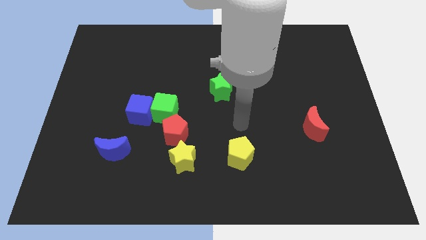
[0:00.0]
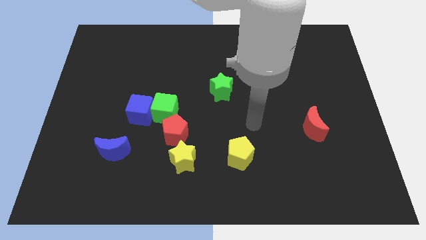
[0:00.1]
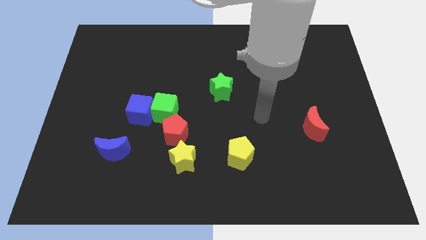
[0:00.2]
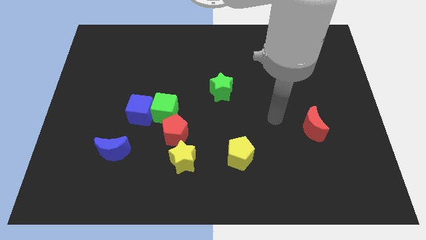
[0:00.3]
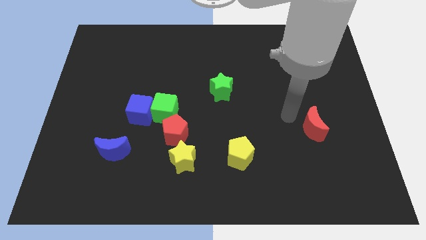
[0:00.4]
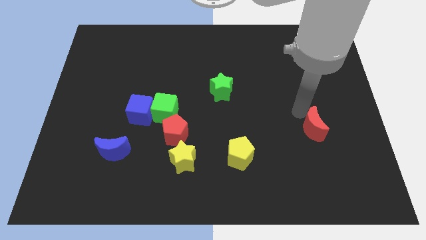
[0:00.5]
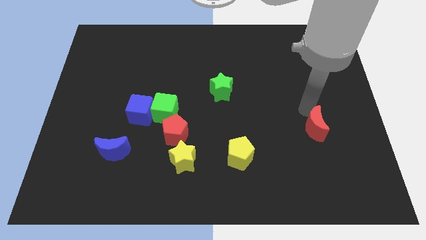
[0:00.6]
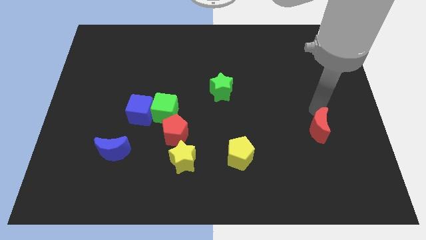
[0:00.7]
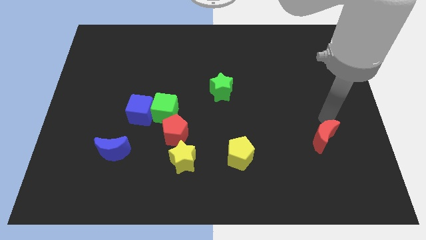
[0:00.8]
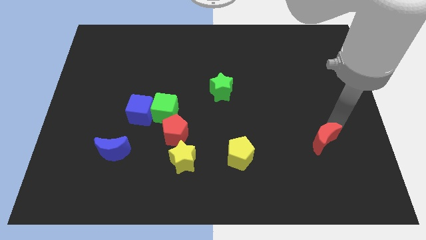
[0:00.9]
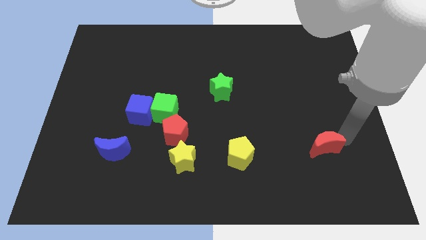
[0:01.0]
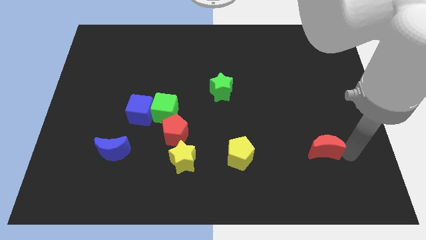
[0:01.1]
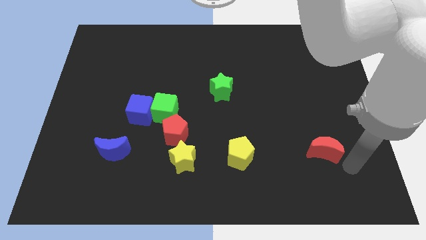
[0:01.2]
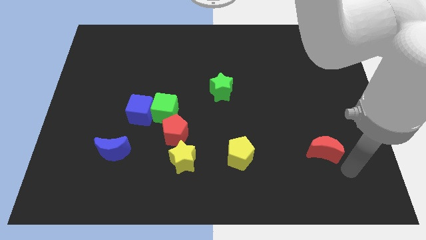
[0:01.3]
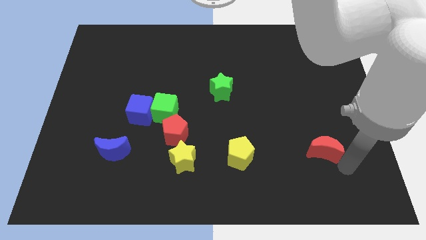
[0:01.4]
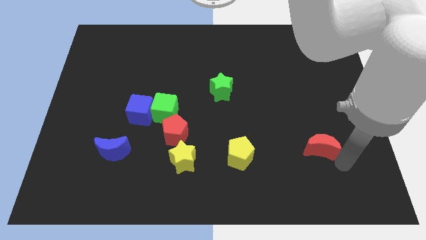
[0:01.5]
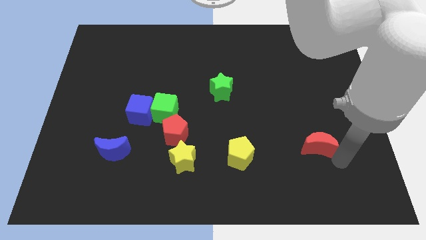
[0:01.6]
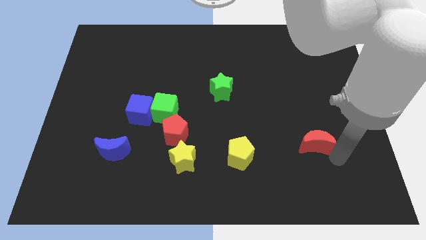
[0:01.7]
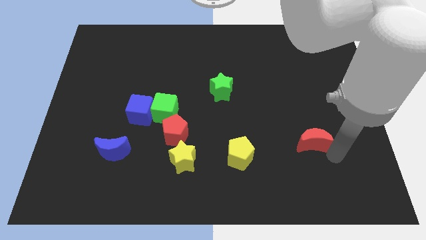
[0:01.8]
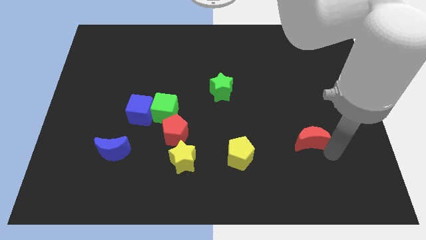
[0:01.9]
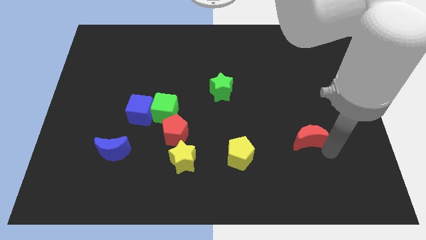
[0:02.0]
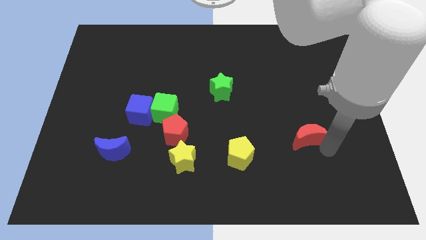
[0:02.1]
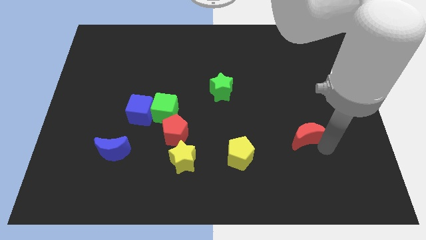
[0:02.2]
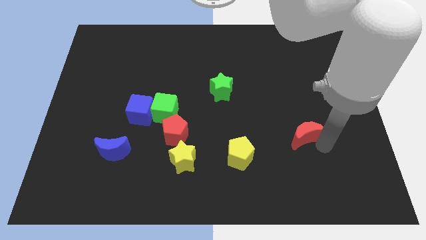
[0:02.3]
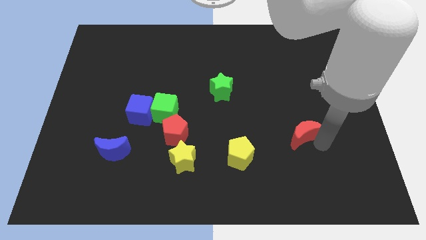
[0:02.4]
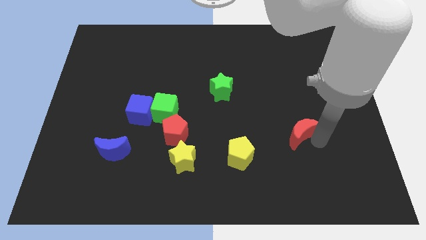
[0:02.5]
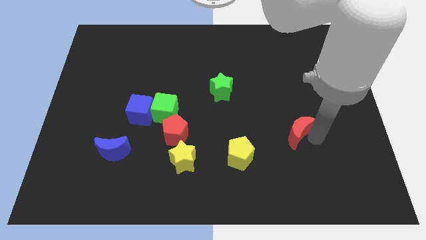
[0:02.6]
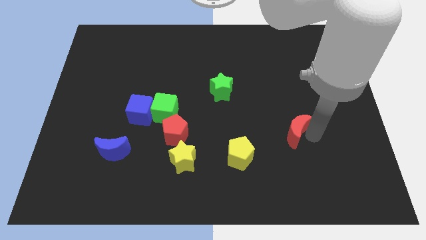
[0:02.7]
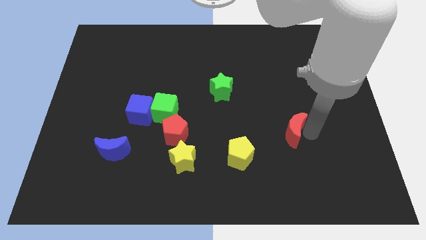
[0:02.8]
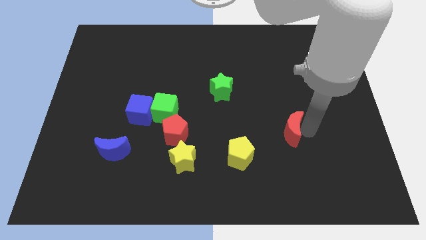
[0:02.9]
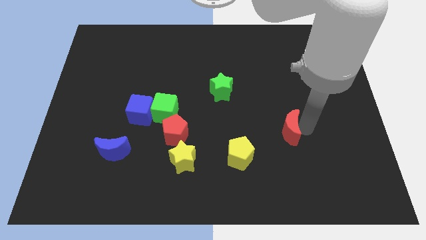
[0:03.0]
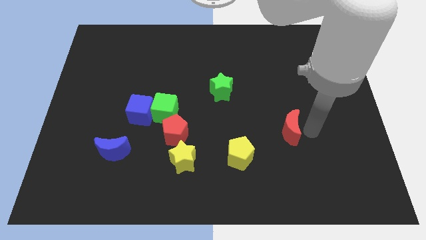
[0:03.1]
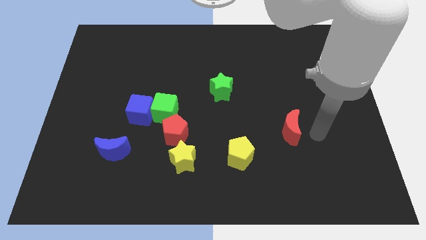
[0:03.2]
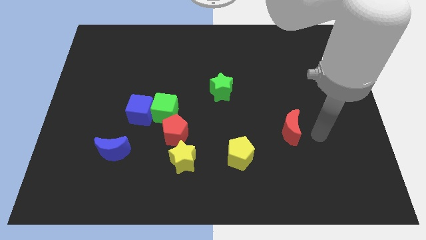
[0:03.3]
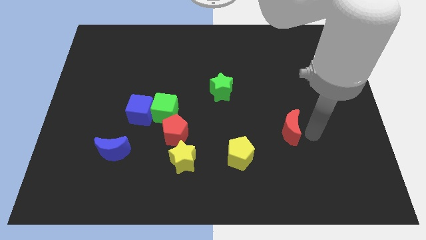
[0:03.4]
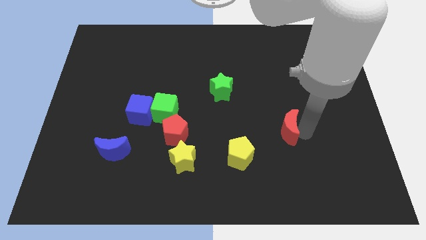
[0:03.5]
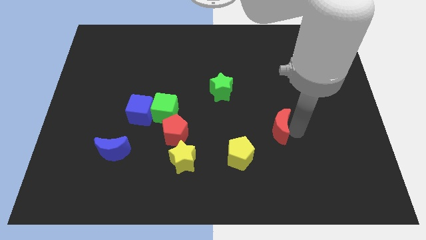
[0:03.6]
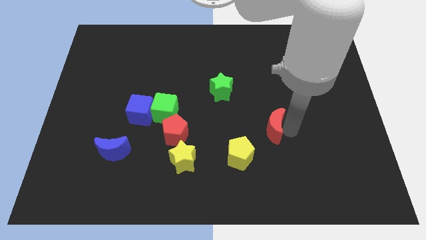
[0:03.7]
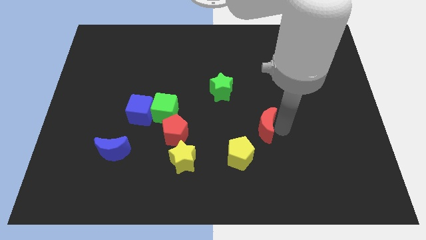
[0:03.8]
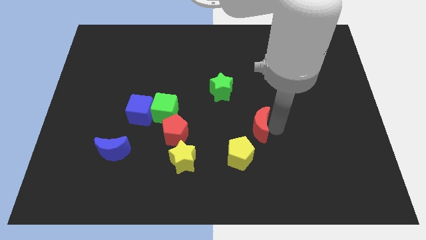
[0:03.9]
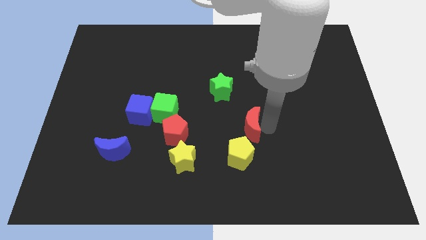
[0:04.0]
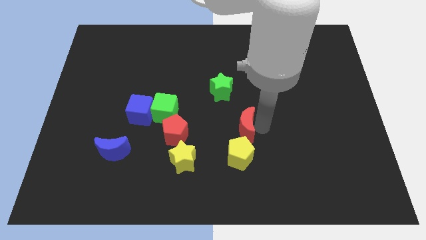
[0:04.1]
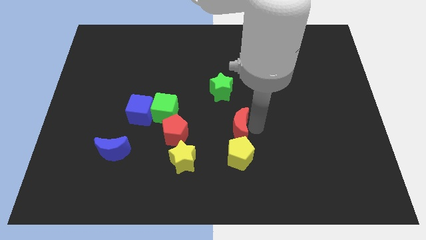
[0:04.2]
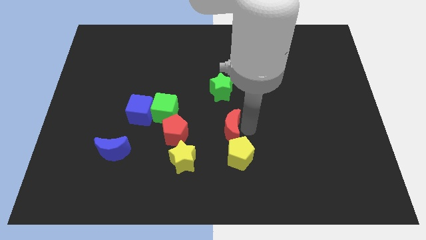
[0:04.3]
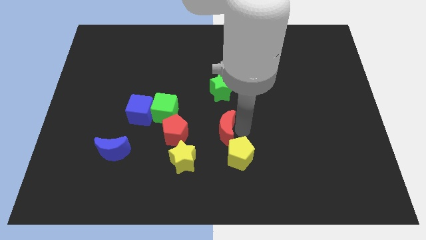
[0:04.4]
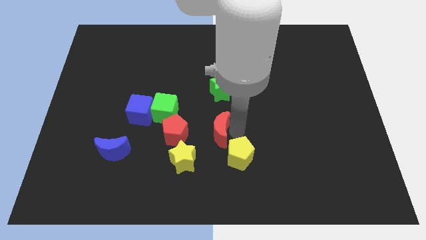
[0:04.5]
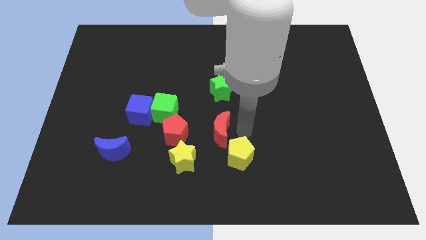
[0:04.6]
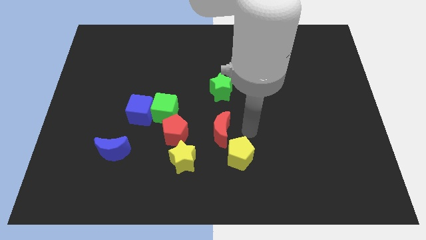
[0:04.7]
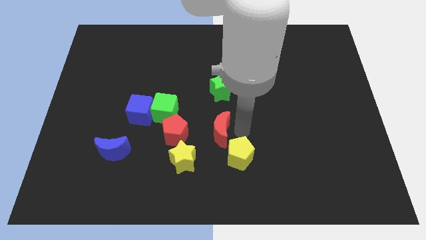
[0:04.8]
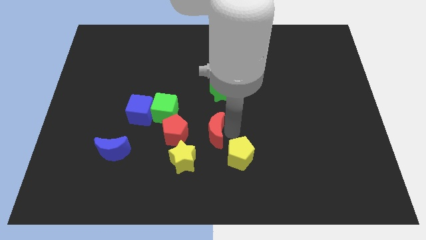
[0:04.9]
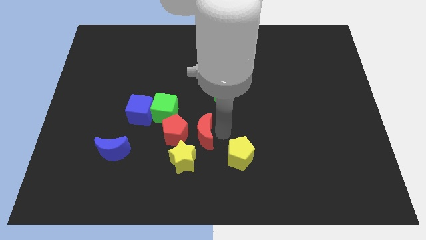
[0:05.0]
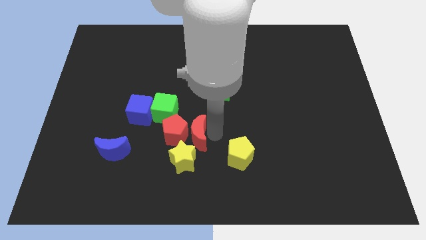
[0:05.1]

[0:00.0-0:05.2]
push the red moon close to the red pentagon

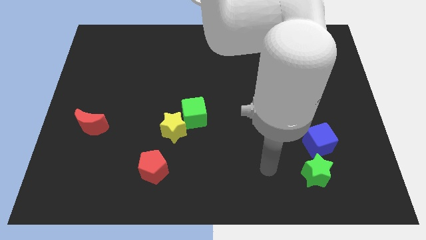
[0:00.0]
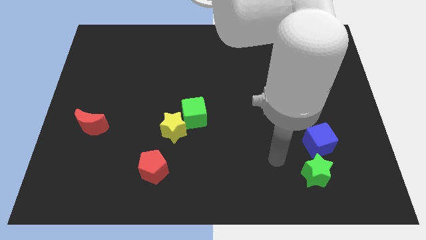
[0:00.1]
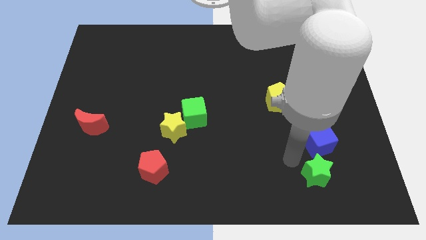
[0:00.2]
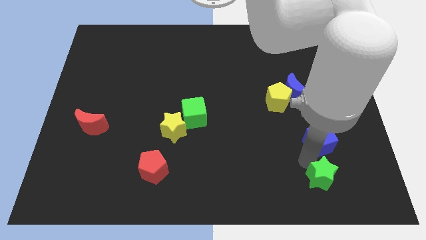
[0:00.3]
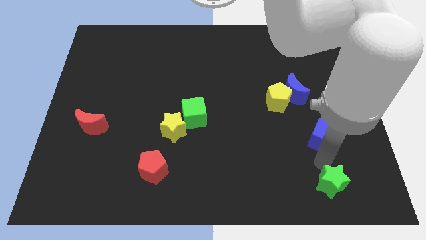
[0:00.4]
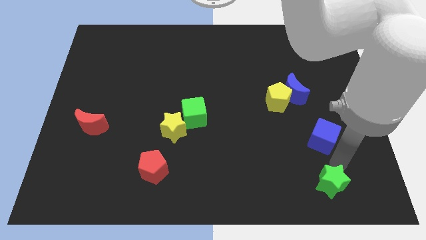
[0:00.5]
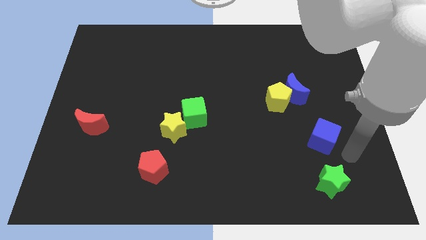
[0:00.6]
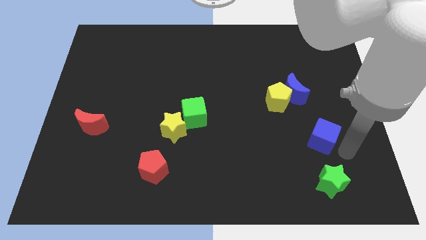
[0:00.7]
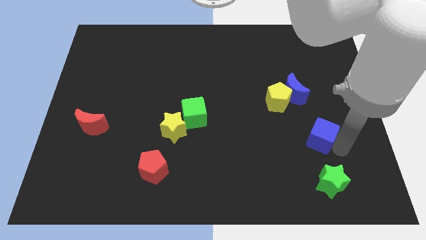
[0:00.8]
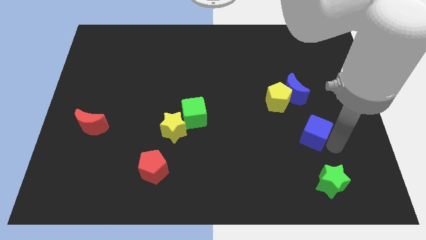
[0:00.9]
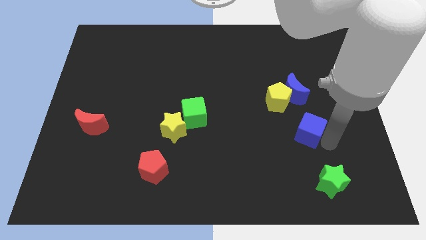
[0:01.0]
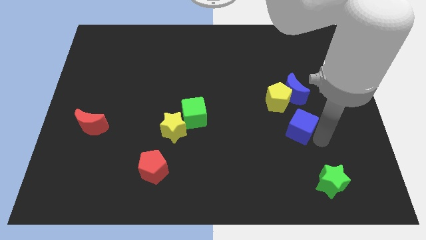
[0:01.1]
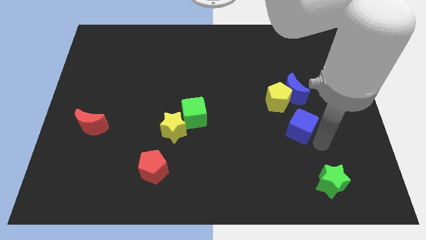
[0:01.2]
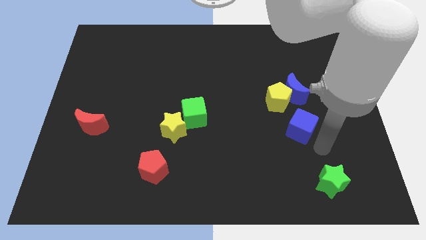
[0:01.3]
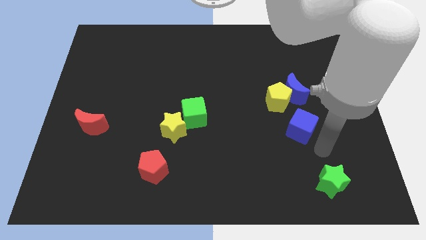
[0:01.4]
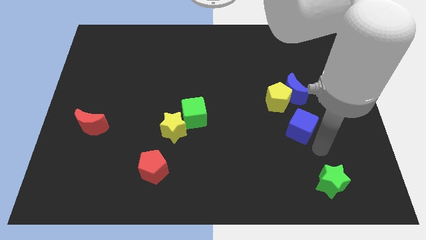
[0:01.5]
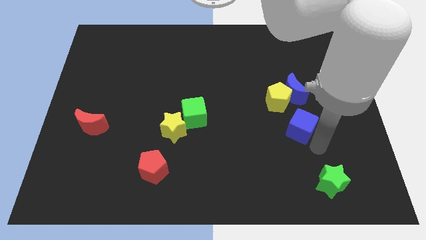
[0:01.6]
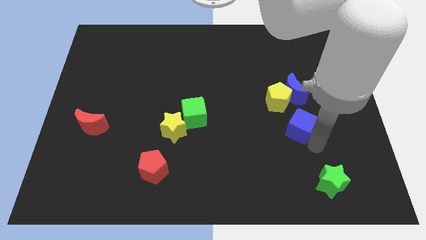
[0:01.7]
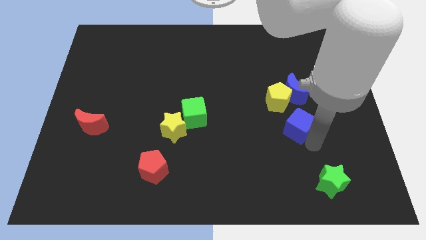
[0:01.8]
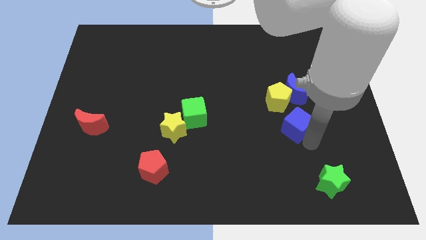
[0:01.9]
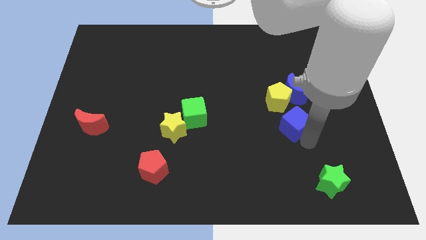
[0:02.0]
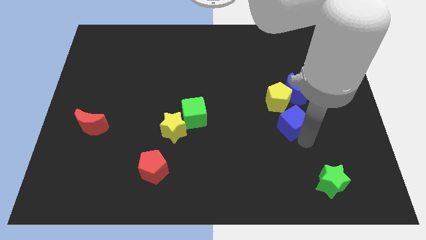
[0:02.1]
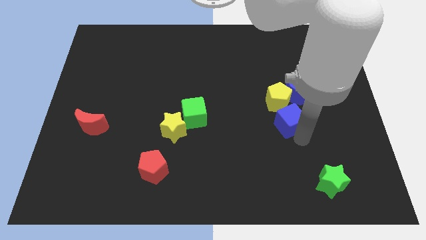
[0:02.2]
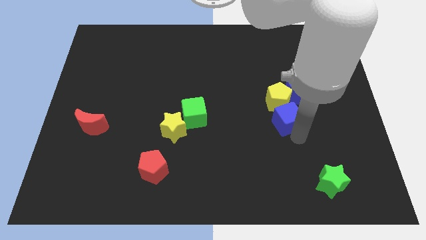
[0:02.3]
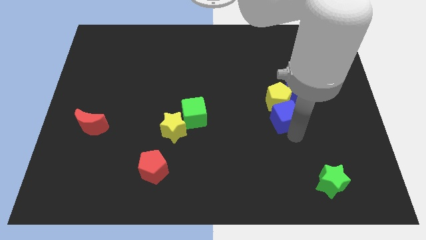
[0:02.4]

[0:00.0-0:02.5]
slide the blue cube to the yellow pentagon
